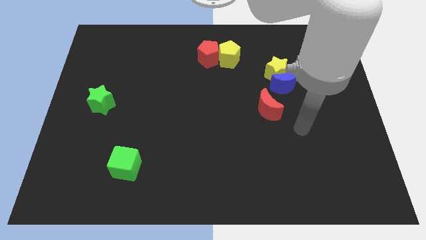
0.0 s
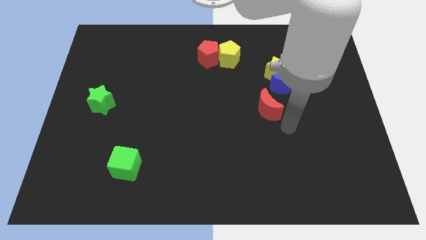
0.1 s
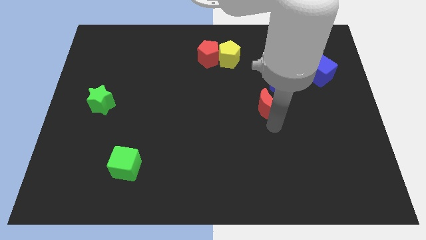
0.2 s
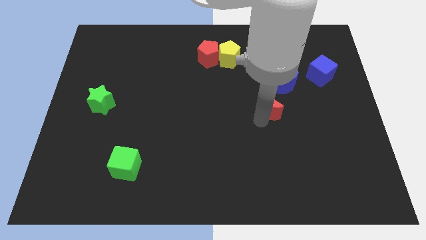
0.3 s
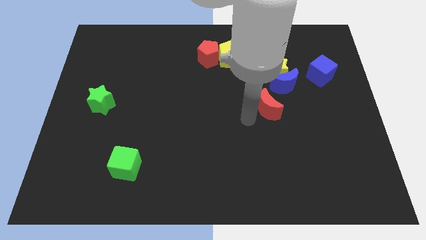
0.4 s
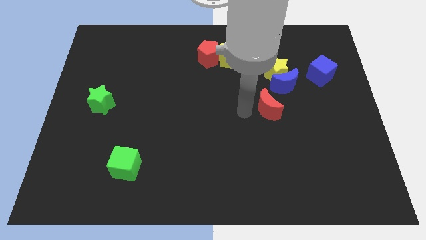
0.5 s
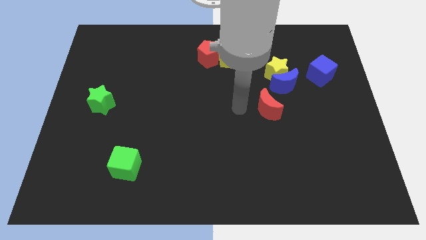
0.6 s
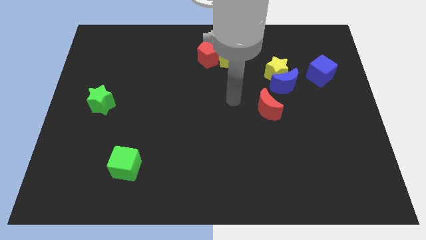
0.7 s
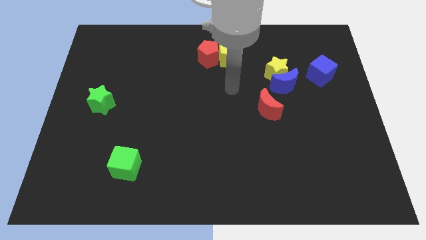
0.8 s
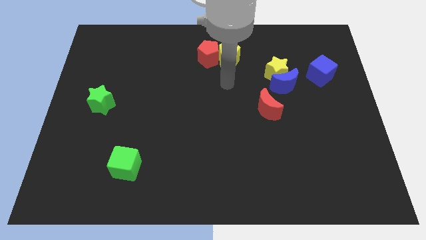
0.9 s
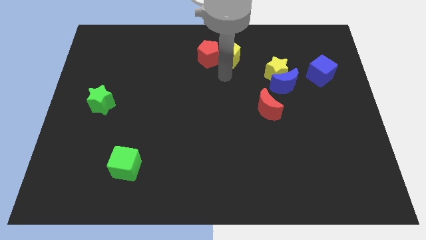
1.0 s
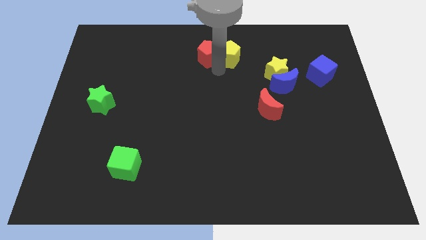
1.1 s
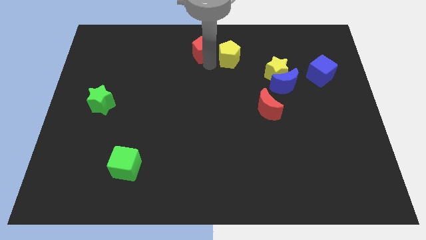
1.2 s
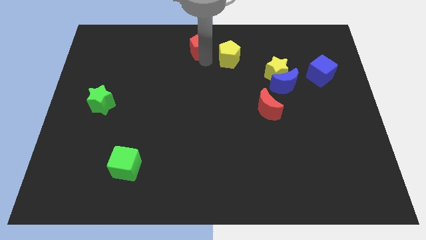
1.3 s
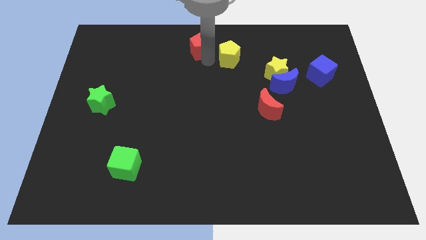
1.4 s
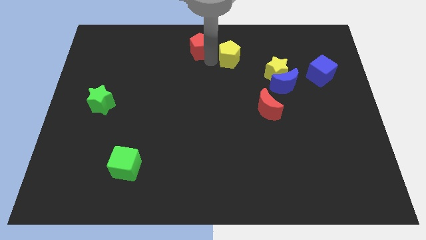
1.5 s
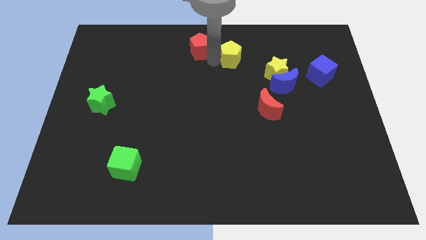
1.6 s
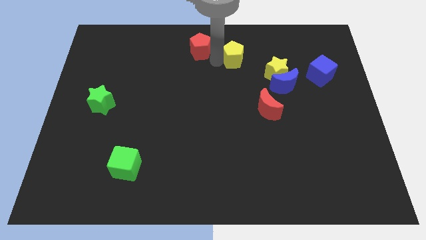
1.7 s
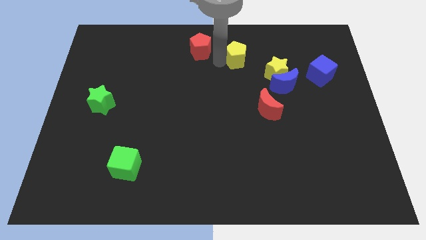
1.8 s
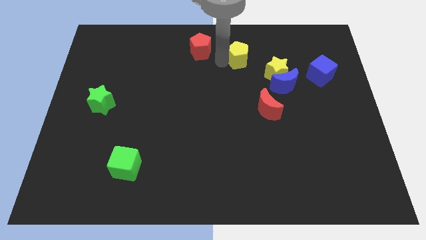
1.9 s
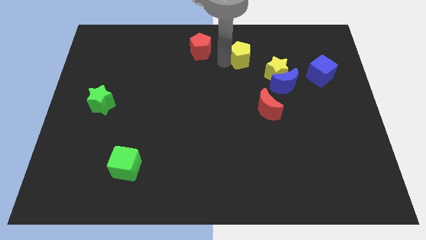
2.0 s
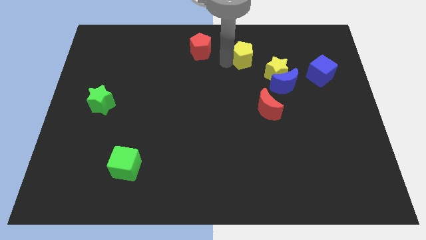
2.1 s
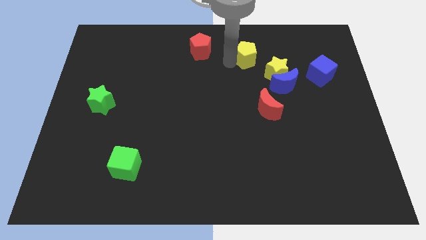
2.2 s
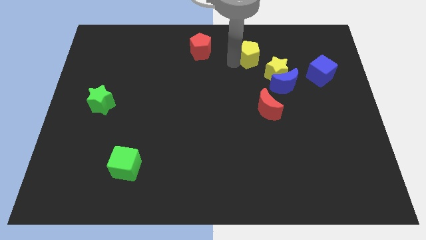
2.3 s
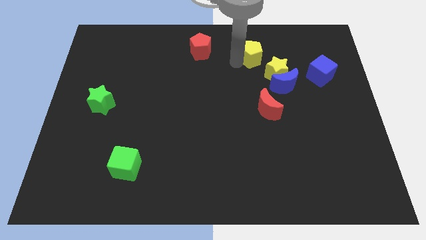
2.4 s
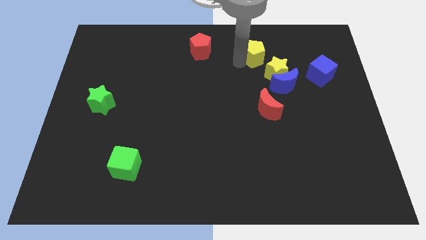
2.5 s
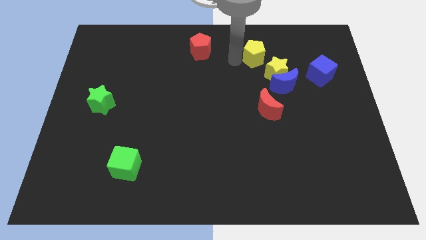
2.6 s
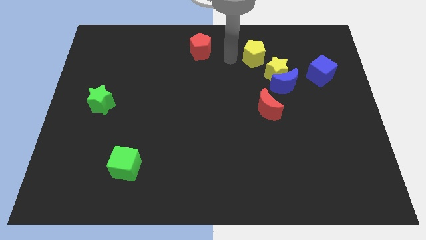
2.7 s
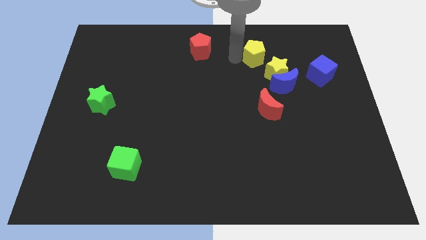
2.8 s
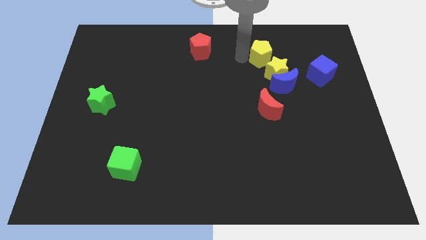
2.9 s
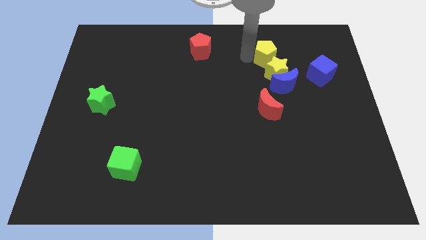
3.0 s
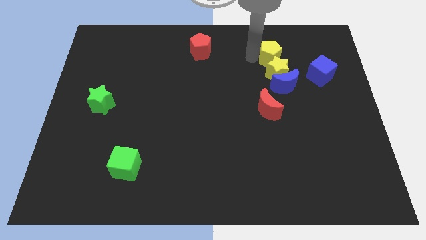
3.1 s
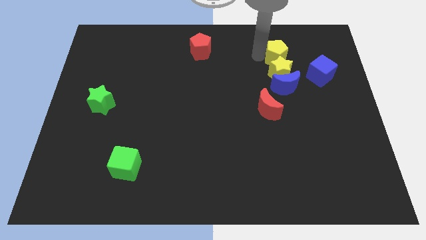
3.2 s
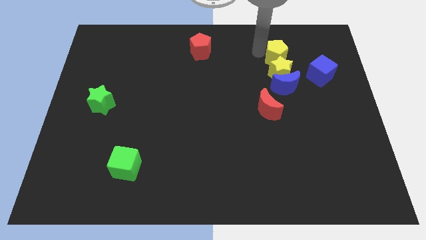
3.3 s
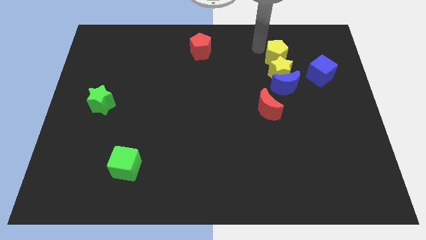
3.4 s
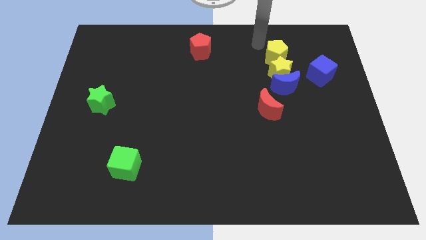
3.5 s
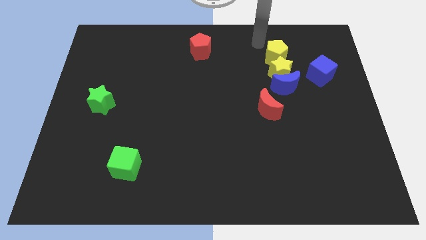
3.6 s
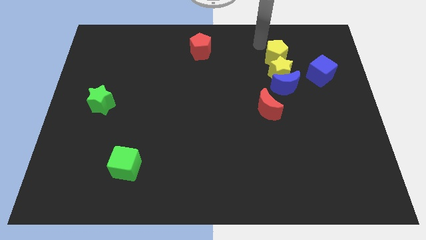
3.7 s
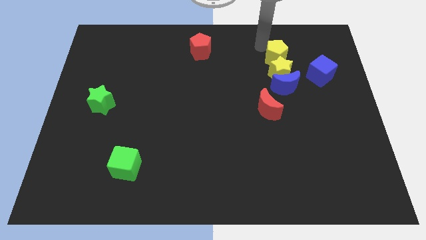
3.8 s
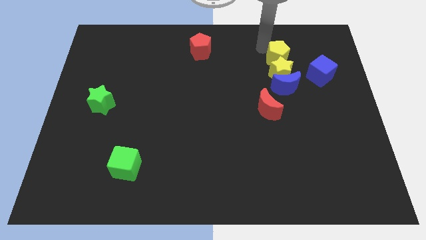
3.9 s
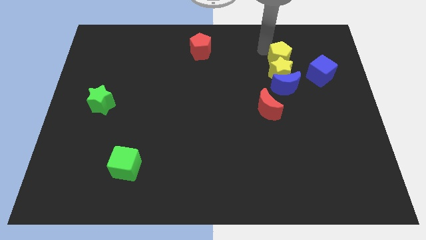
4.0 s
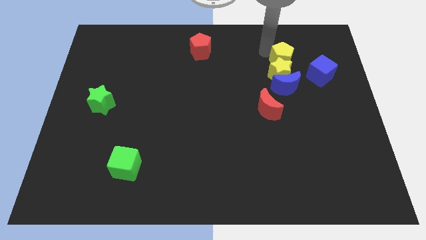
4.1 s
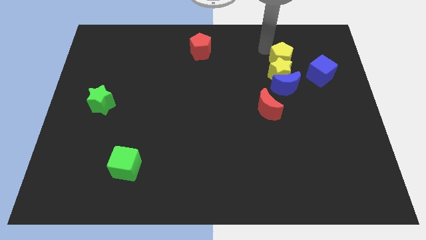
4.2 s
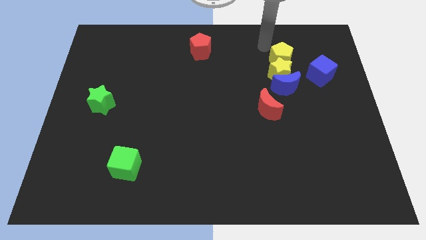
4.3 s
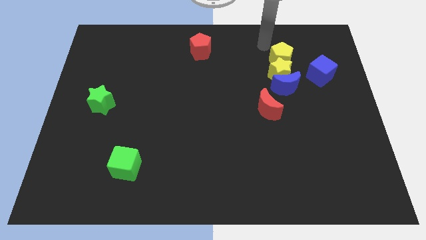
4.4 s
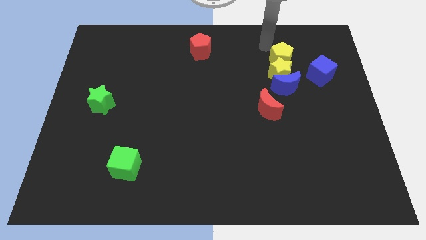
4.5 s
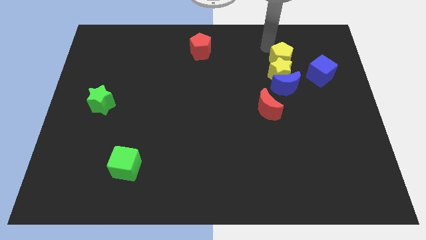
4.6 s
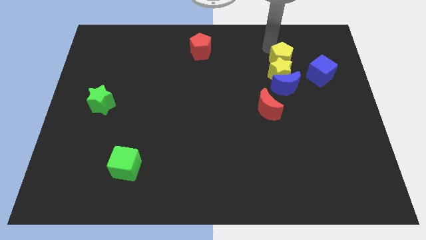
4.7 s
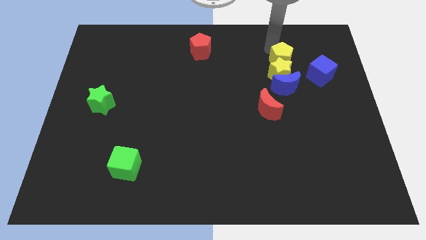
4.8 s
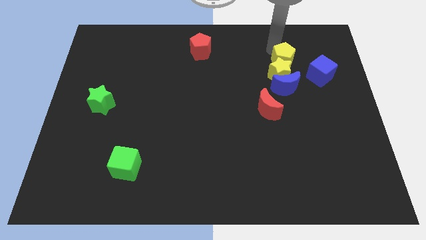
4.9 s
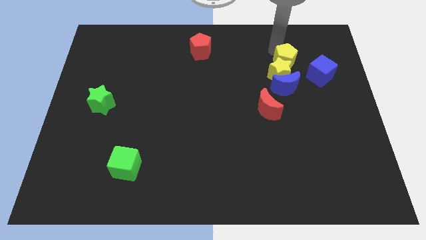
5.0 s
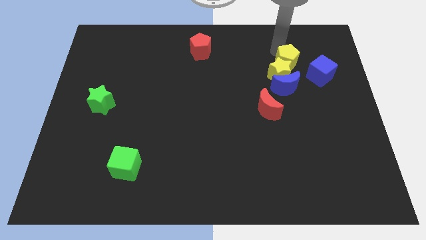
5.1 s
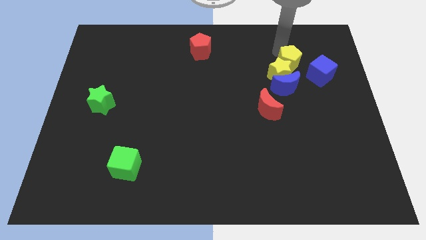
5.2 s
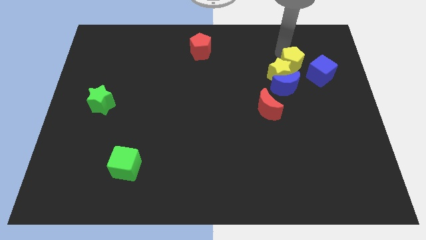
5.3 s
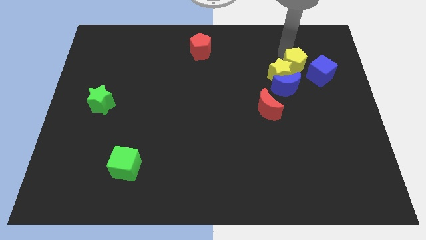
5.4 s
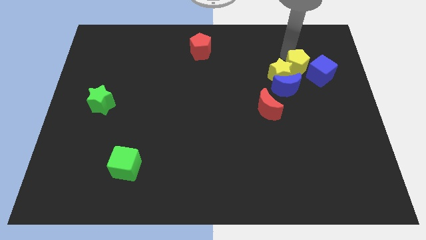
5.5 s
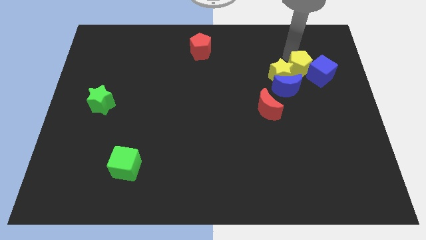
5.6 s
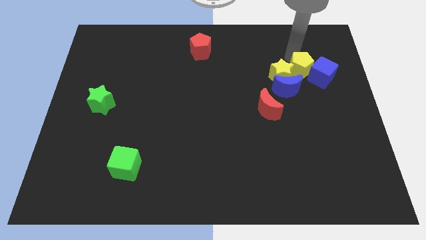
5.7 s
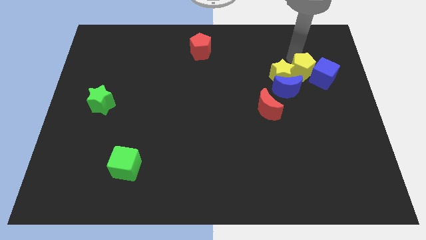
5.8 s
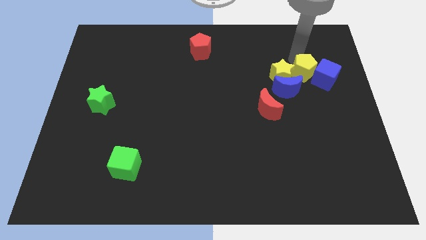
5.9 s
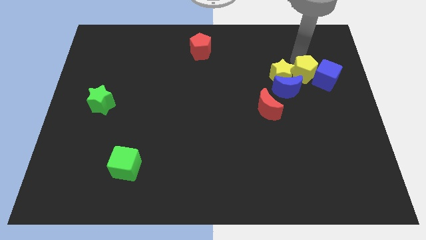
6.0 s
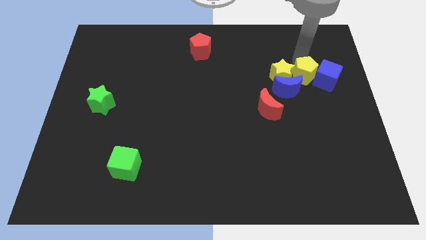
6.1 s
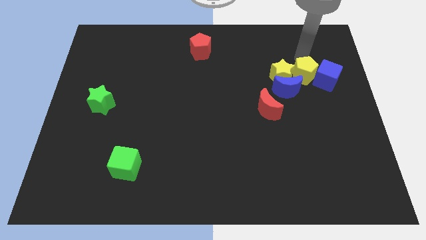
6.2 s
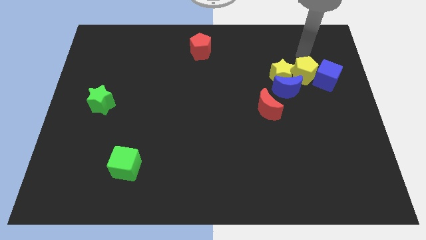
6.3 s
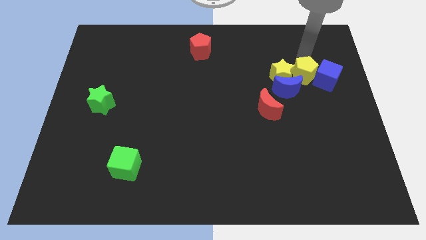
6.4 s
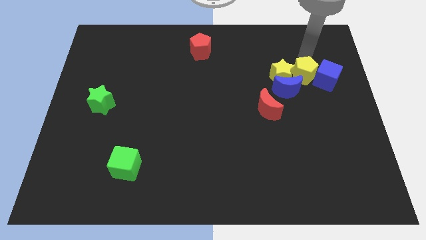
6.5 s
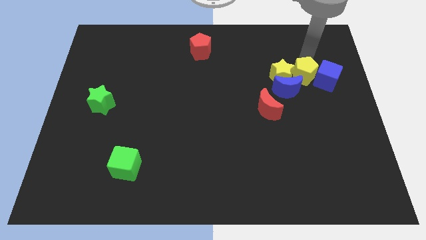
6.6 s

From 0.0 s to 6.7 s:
put the yellow pentagon to the bottom right of the yellow star
